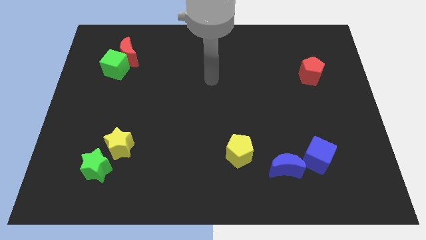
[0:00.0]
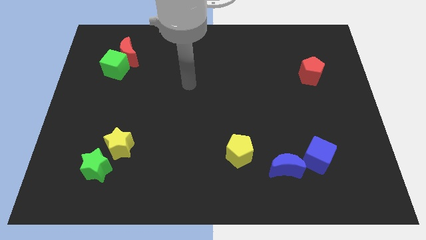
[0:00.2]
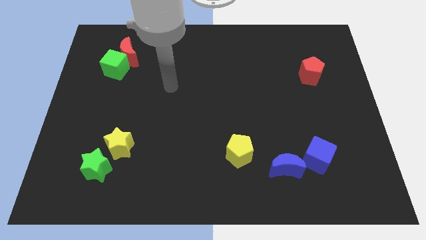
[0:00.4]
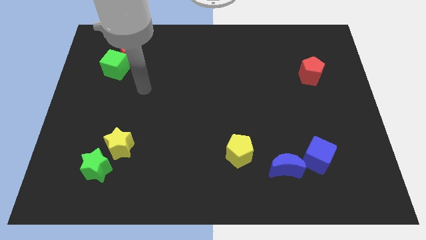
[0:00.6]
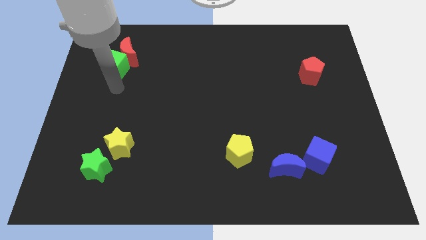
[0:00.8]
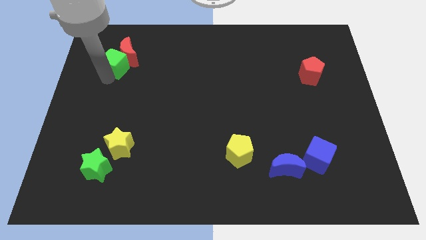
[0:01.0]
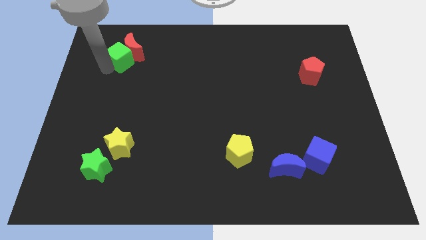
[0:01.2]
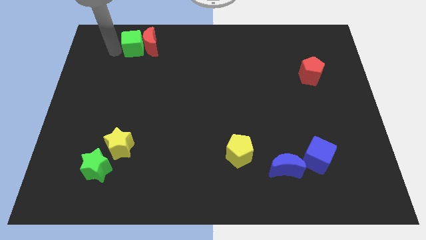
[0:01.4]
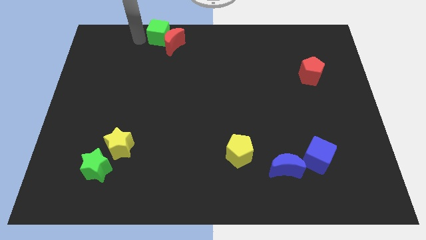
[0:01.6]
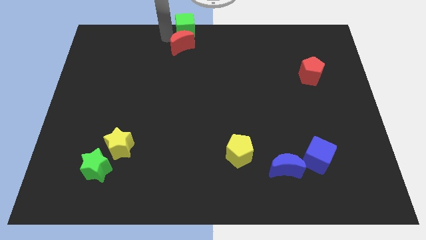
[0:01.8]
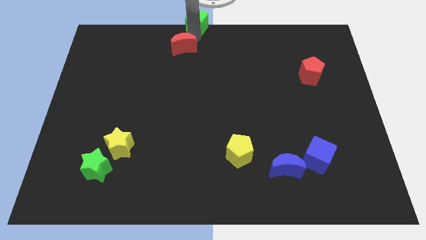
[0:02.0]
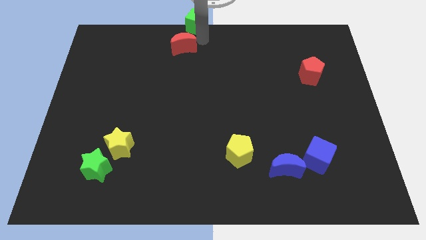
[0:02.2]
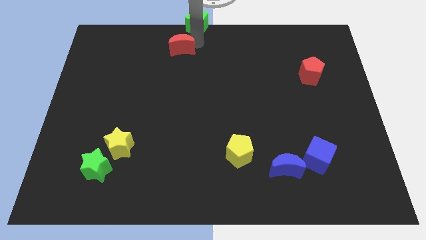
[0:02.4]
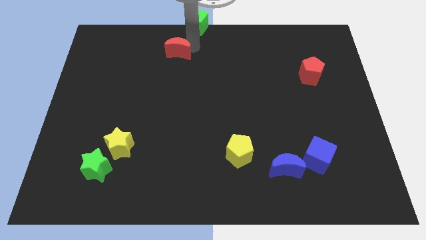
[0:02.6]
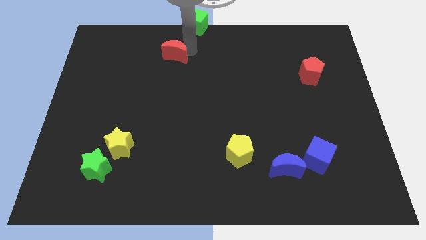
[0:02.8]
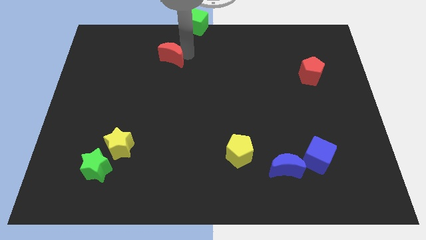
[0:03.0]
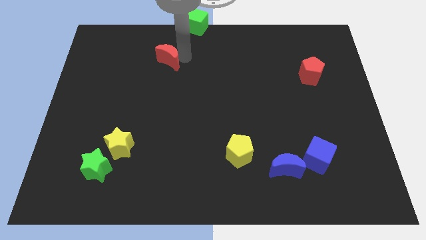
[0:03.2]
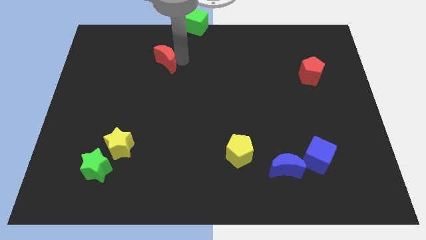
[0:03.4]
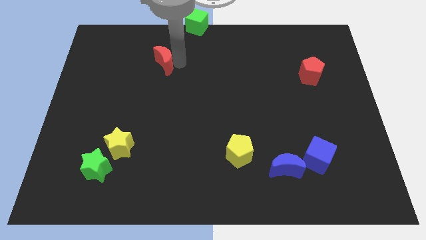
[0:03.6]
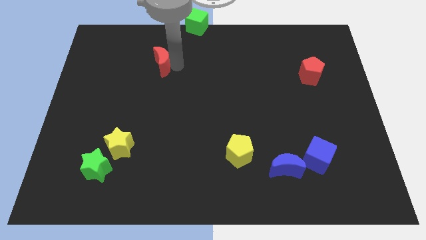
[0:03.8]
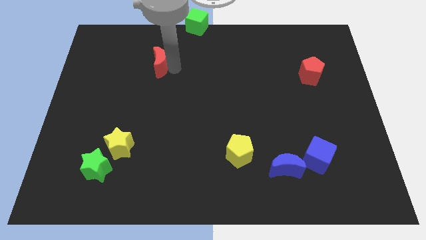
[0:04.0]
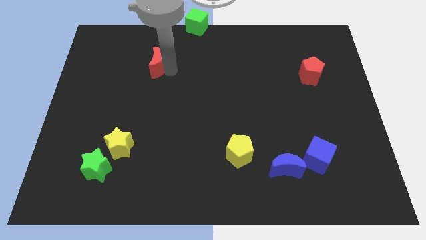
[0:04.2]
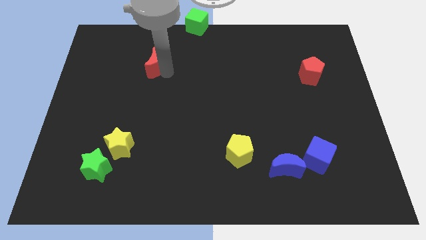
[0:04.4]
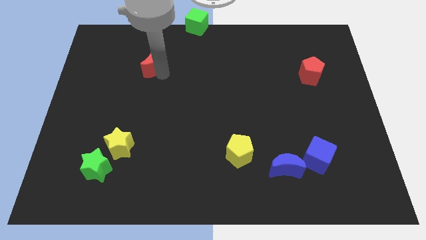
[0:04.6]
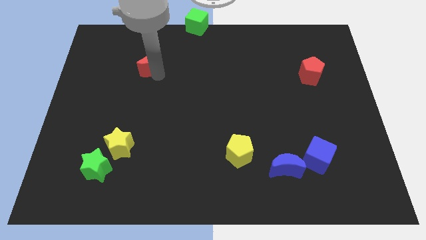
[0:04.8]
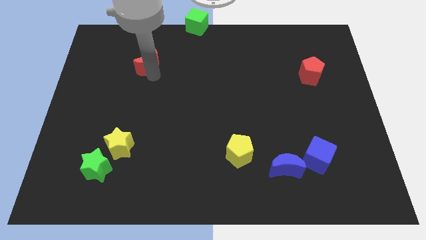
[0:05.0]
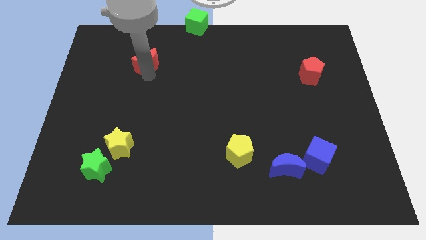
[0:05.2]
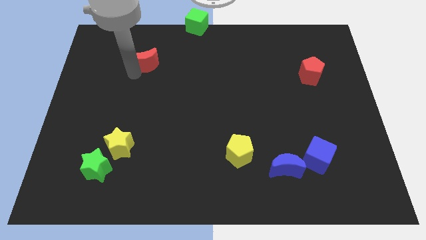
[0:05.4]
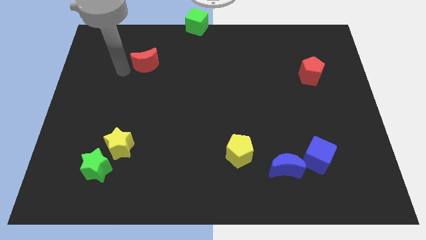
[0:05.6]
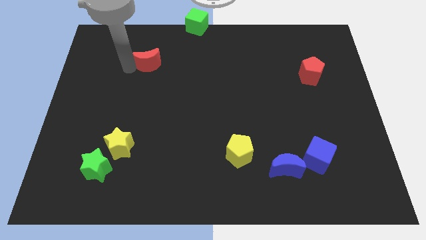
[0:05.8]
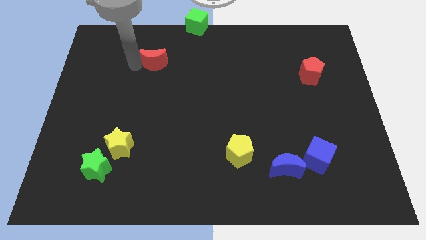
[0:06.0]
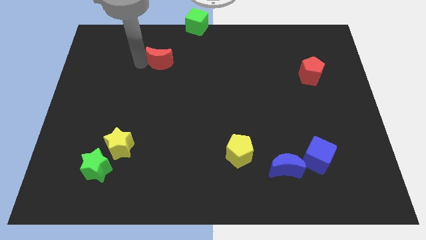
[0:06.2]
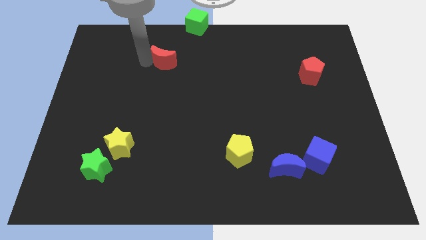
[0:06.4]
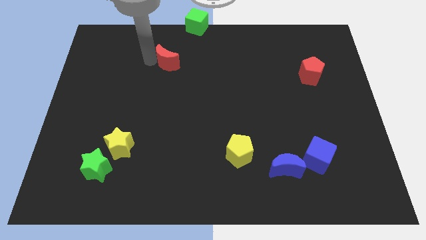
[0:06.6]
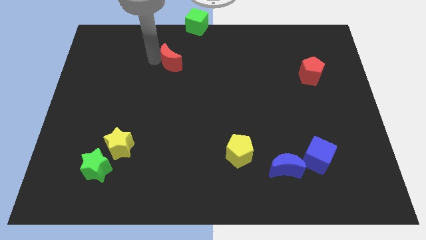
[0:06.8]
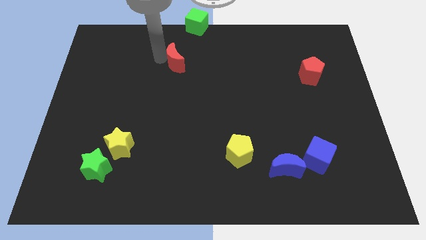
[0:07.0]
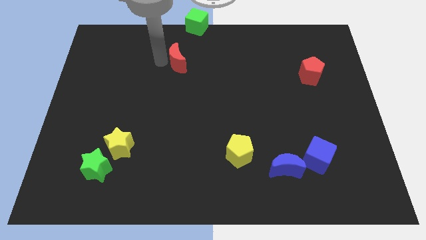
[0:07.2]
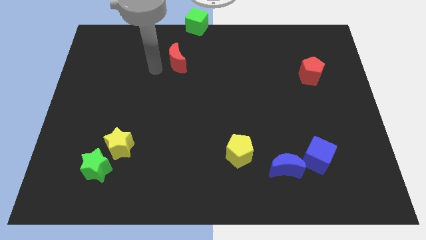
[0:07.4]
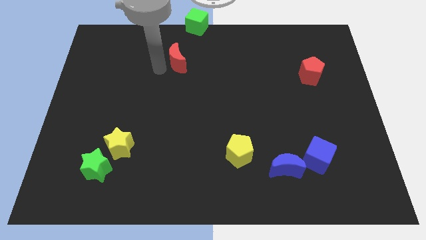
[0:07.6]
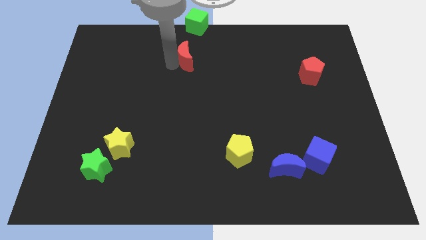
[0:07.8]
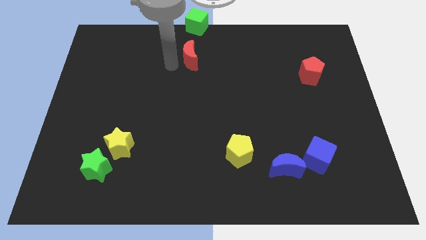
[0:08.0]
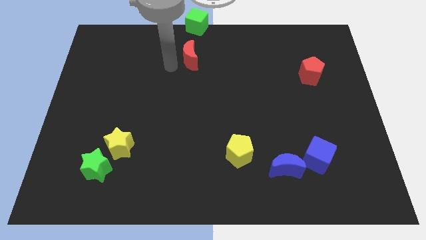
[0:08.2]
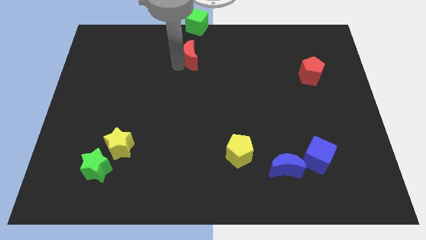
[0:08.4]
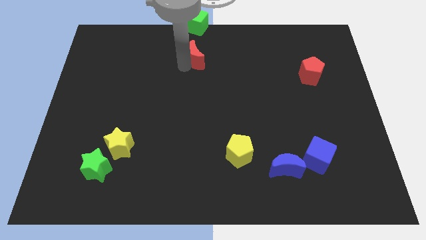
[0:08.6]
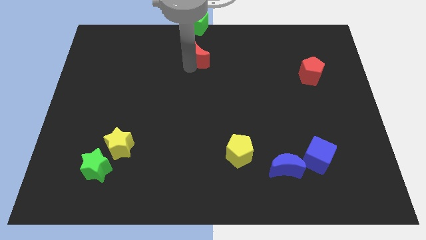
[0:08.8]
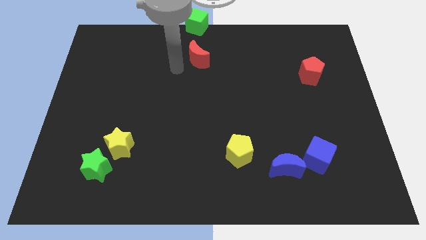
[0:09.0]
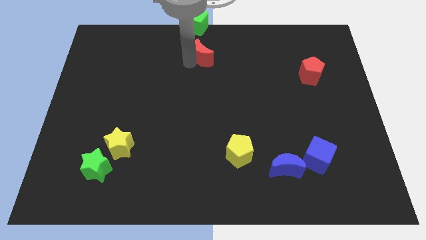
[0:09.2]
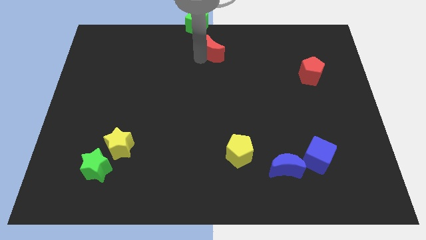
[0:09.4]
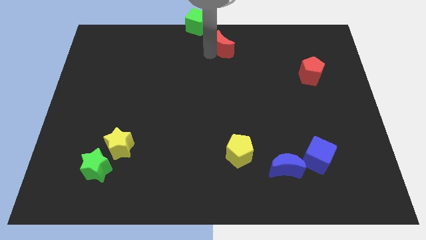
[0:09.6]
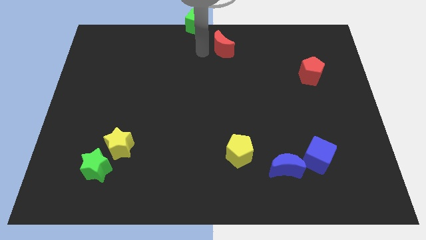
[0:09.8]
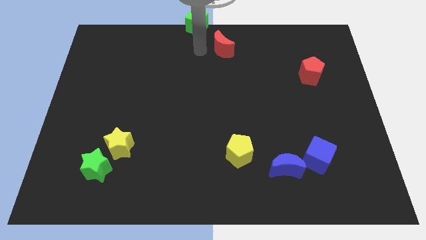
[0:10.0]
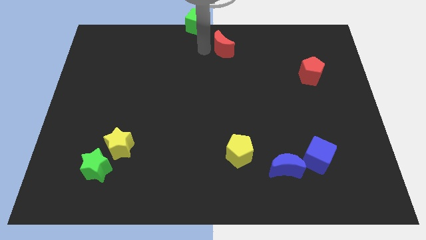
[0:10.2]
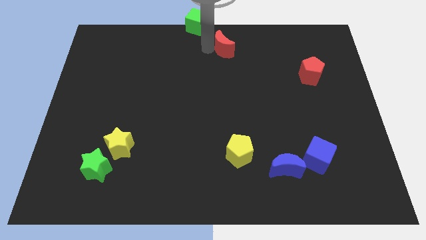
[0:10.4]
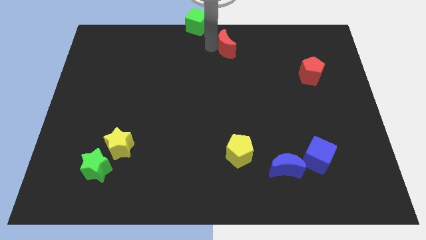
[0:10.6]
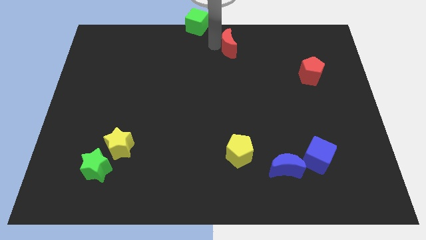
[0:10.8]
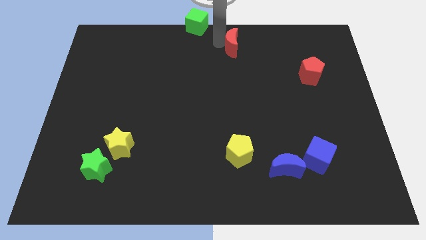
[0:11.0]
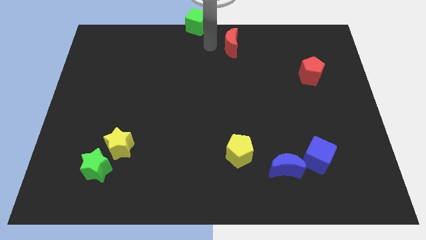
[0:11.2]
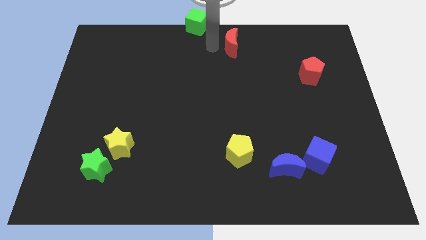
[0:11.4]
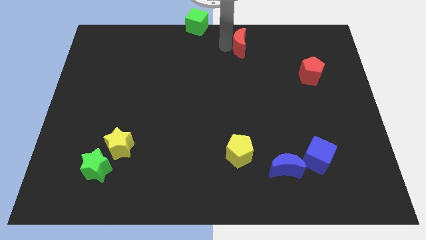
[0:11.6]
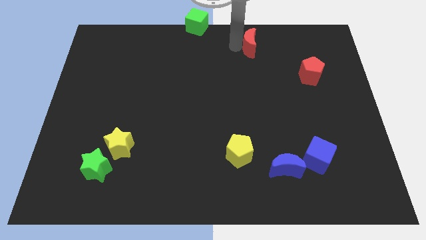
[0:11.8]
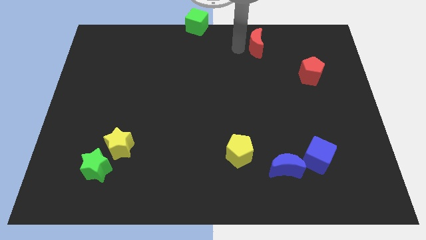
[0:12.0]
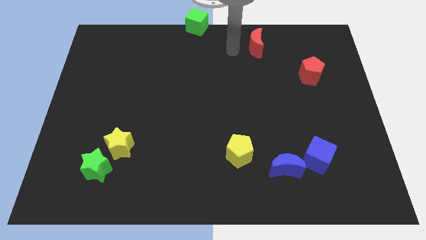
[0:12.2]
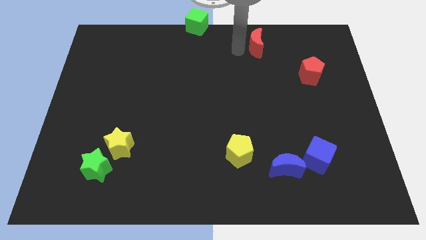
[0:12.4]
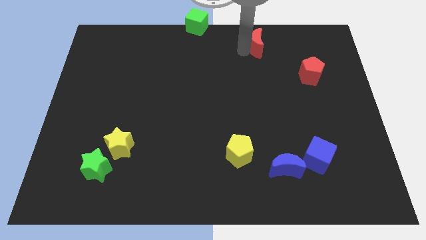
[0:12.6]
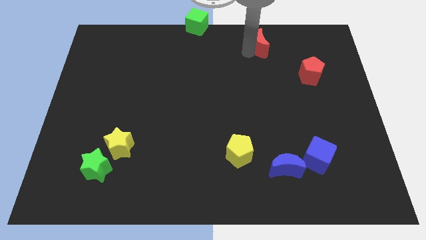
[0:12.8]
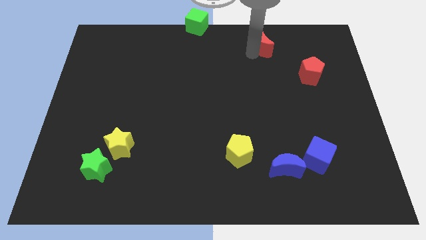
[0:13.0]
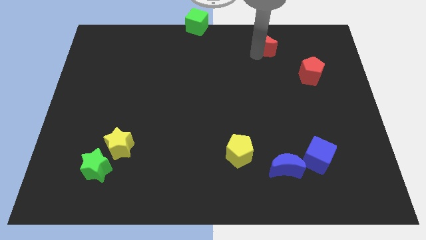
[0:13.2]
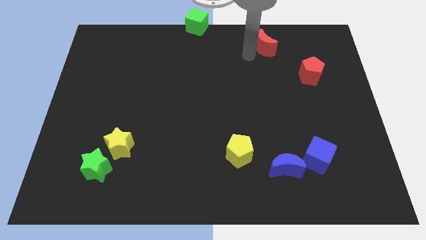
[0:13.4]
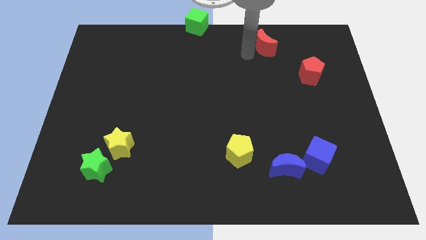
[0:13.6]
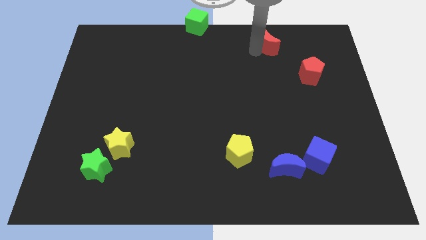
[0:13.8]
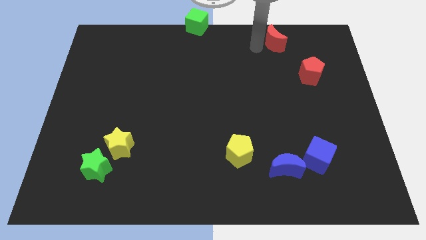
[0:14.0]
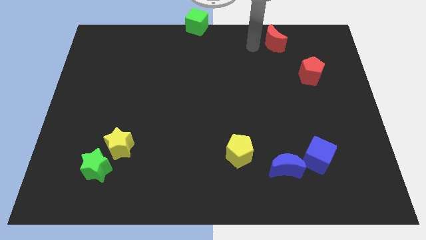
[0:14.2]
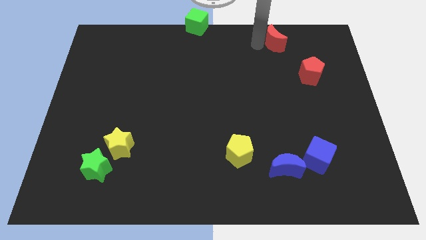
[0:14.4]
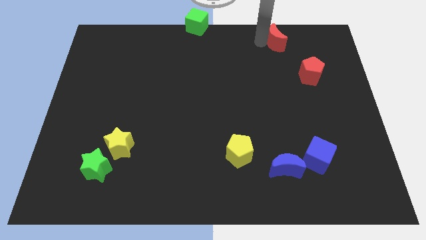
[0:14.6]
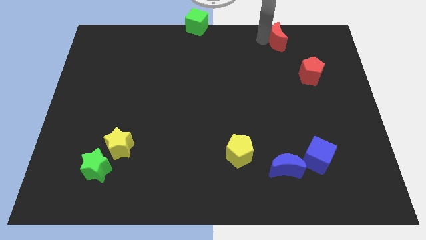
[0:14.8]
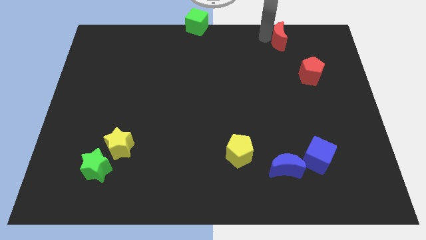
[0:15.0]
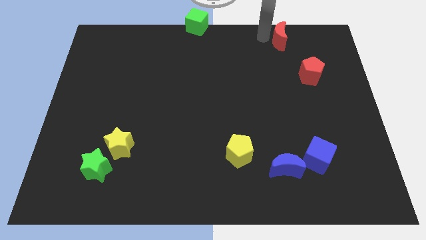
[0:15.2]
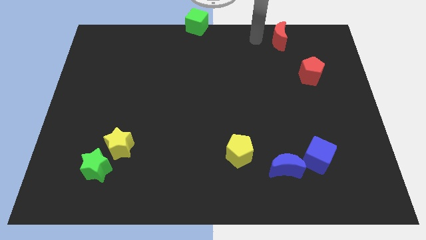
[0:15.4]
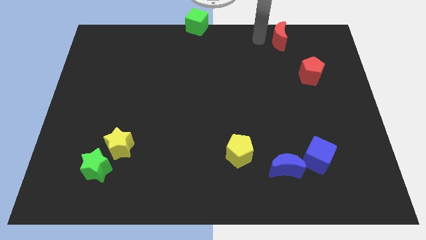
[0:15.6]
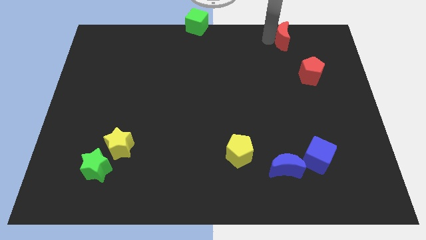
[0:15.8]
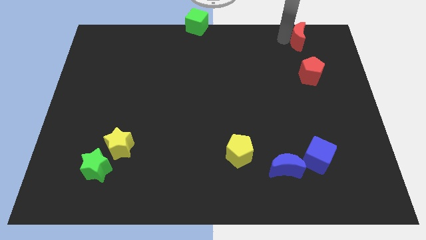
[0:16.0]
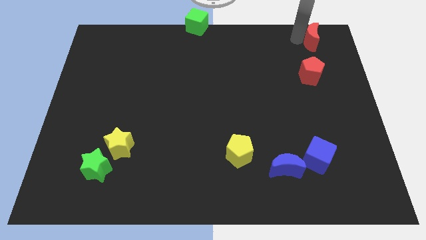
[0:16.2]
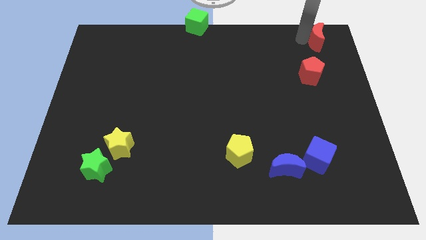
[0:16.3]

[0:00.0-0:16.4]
slide the red moon to the top right of the board
